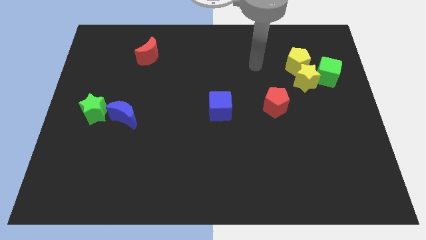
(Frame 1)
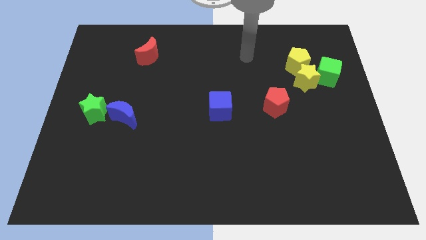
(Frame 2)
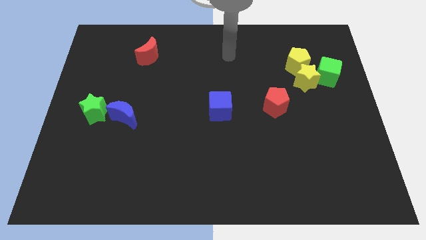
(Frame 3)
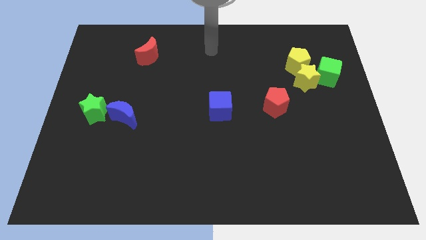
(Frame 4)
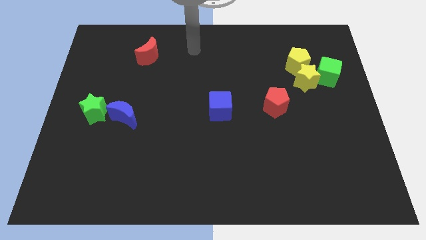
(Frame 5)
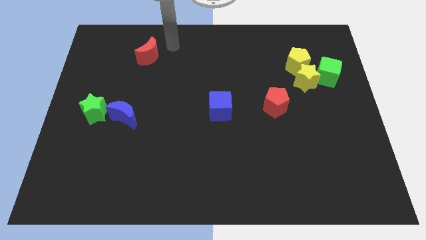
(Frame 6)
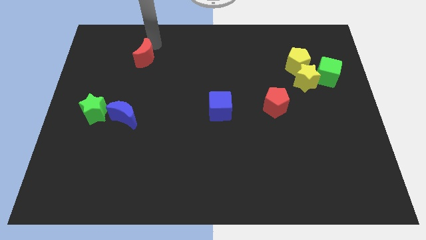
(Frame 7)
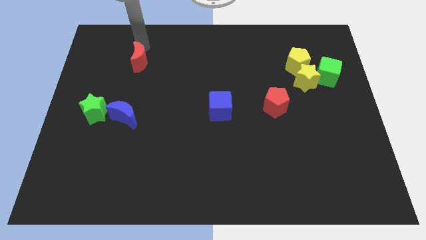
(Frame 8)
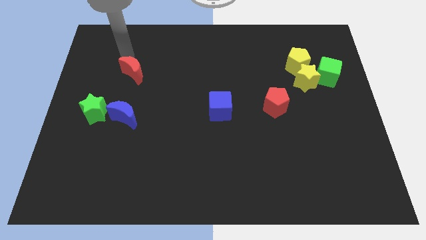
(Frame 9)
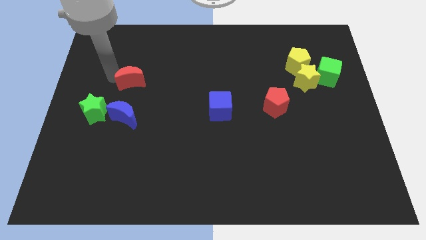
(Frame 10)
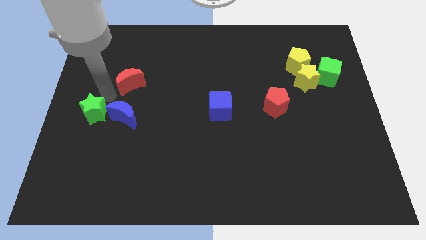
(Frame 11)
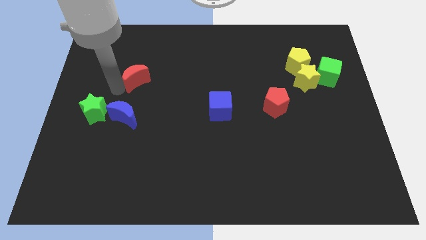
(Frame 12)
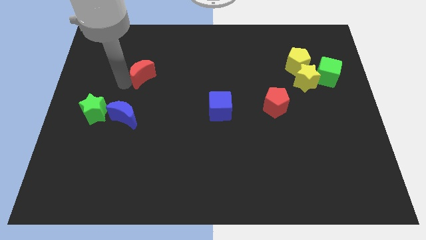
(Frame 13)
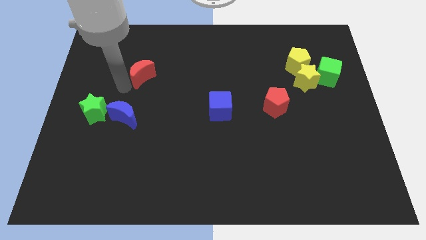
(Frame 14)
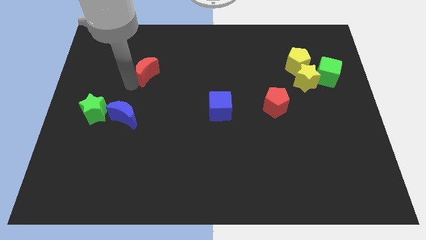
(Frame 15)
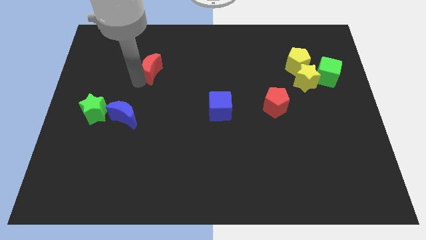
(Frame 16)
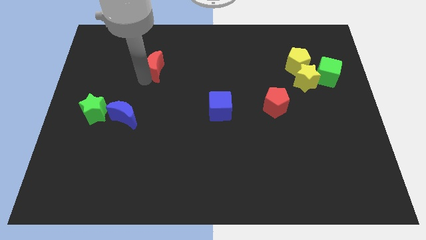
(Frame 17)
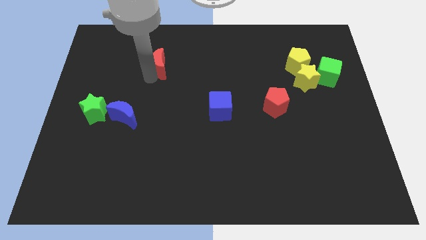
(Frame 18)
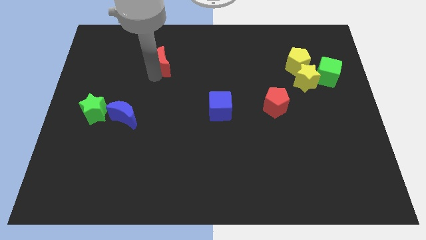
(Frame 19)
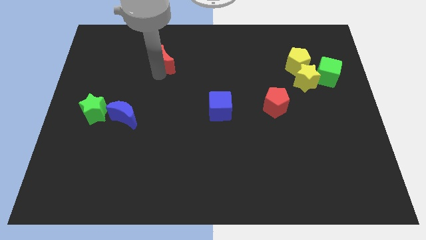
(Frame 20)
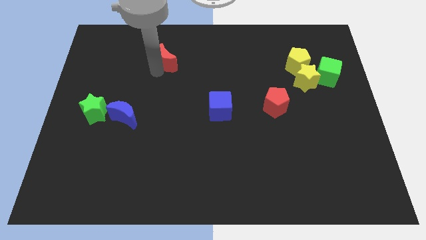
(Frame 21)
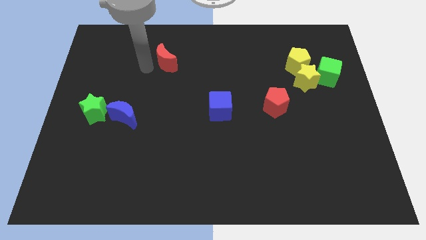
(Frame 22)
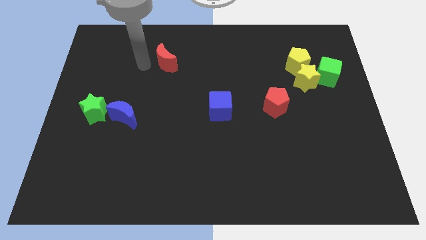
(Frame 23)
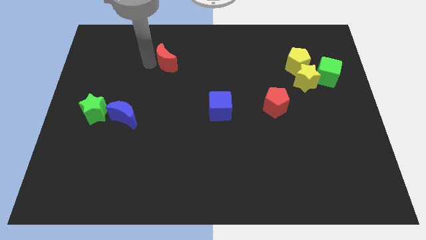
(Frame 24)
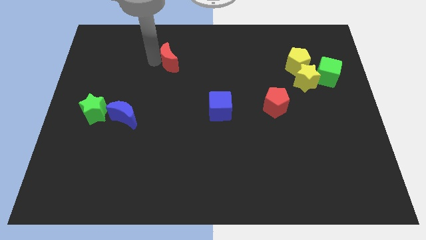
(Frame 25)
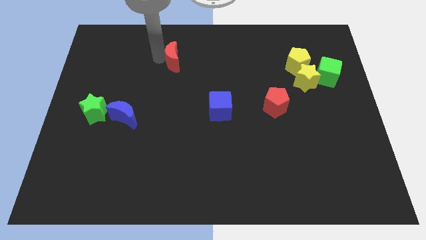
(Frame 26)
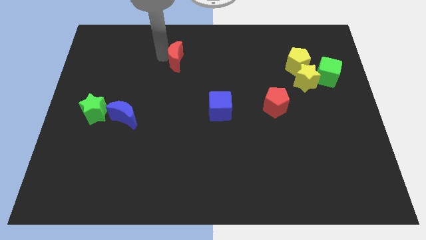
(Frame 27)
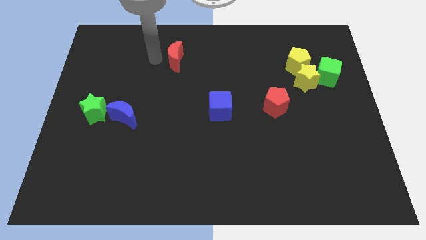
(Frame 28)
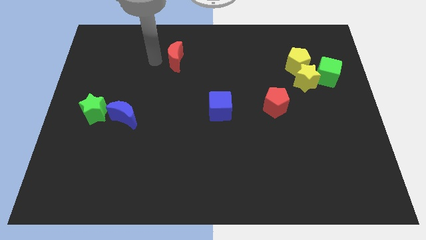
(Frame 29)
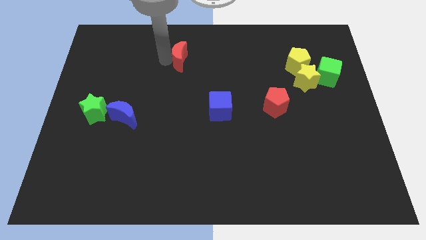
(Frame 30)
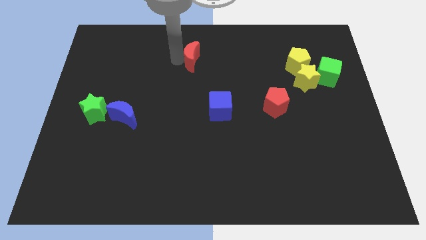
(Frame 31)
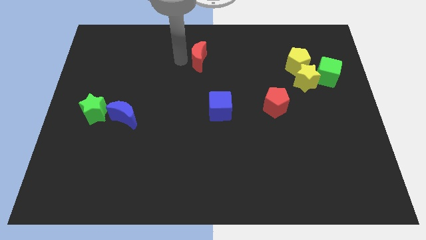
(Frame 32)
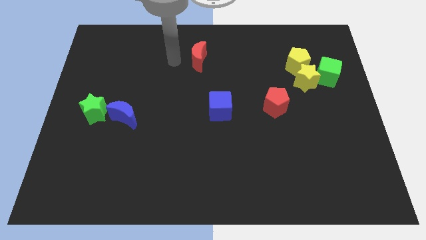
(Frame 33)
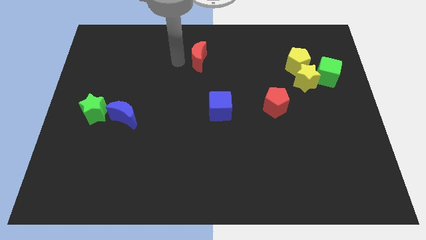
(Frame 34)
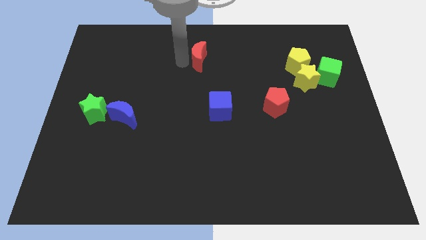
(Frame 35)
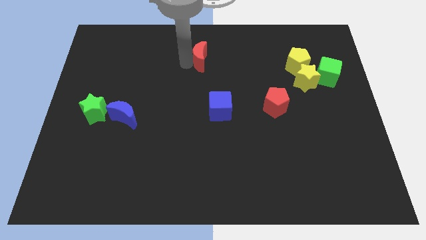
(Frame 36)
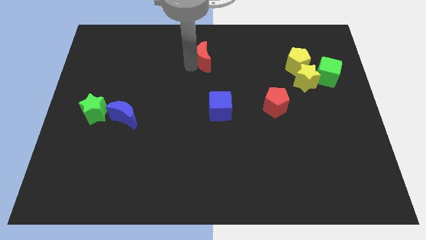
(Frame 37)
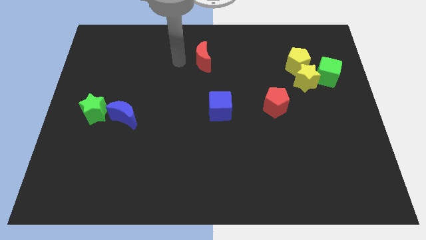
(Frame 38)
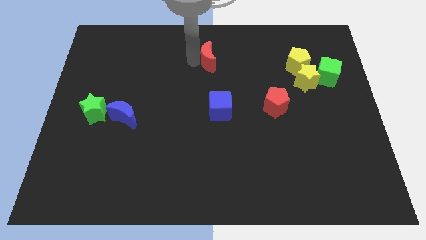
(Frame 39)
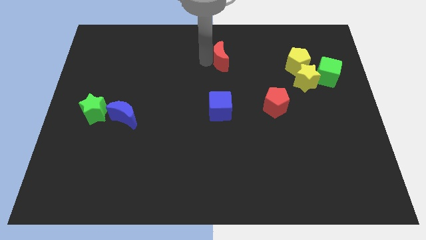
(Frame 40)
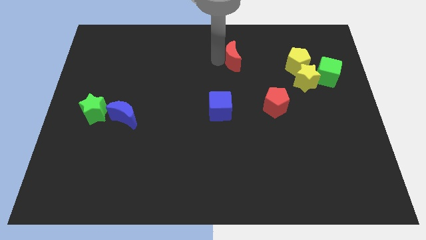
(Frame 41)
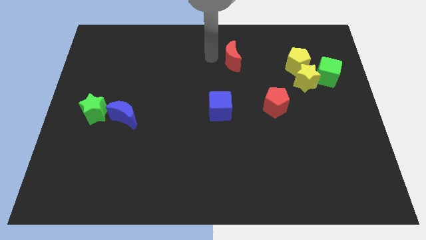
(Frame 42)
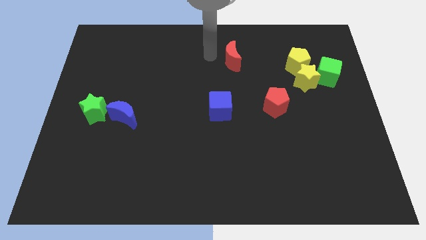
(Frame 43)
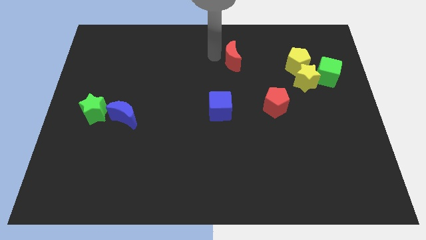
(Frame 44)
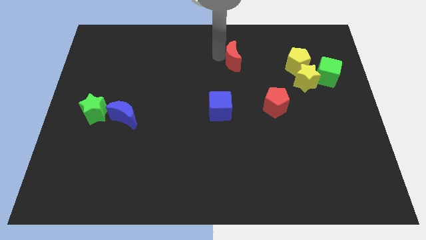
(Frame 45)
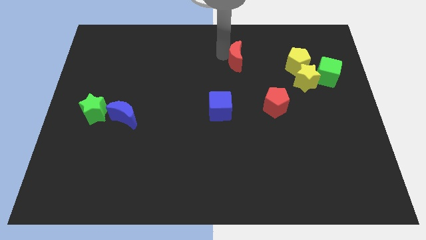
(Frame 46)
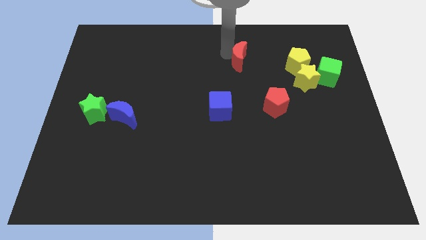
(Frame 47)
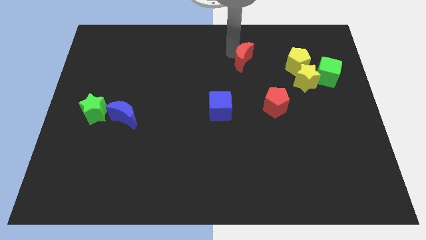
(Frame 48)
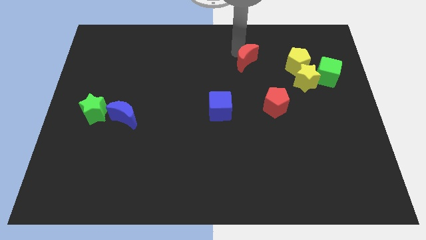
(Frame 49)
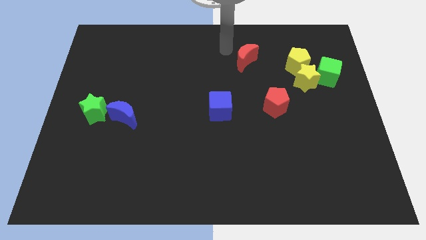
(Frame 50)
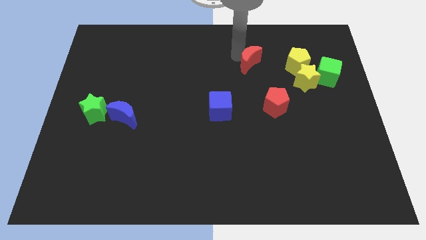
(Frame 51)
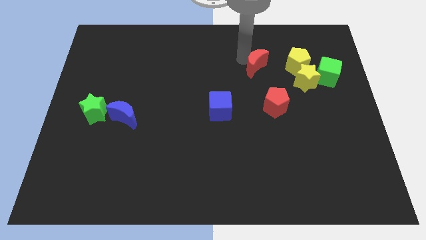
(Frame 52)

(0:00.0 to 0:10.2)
move the red moon above the red pentagon

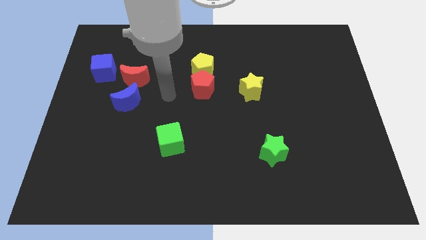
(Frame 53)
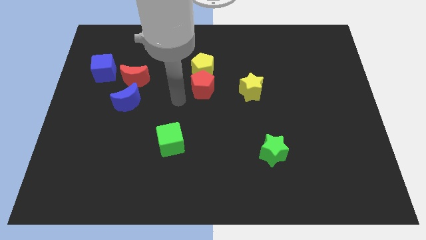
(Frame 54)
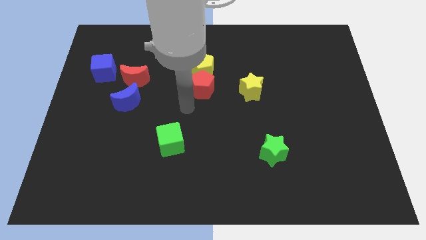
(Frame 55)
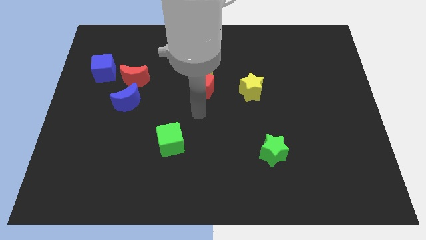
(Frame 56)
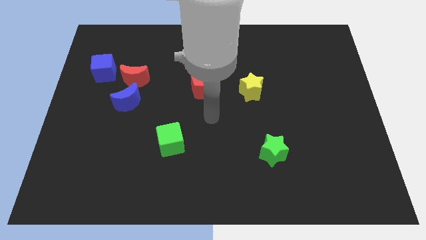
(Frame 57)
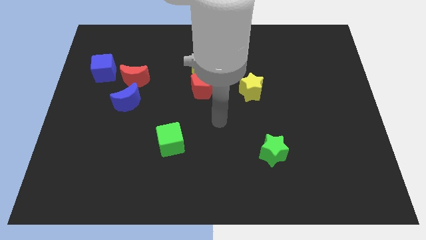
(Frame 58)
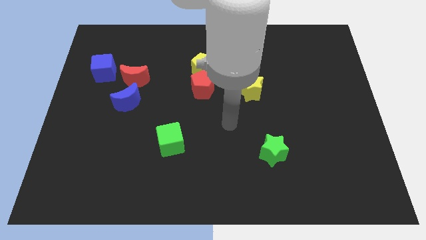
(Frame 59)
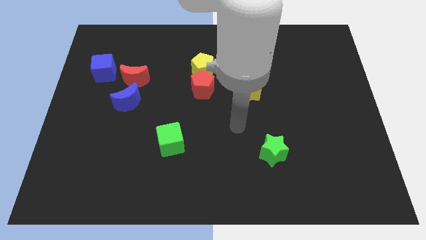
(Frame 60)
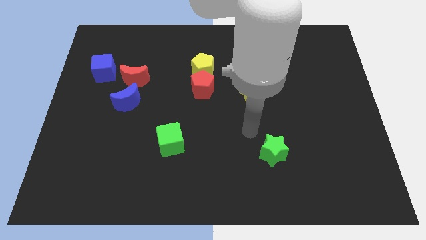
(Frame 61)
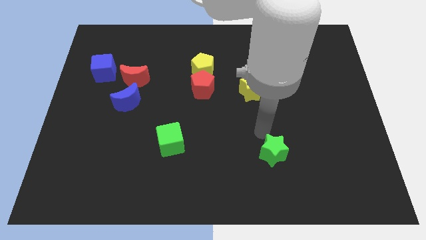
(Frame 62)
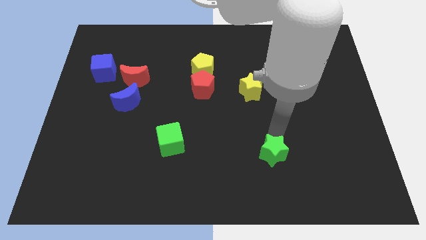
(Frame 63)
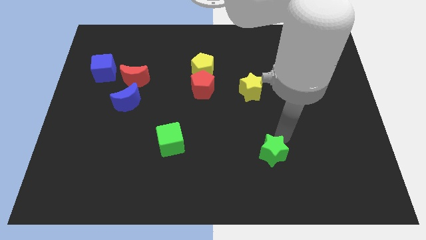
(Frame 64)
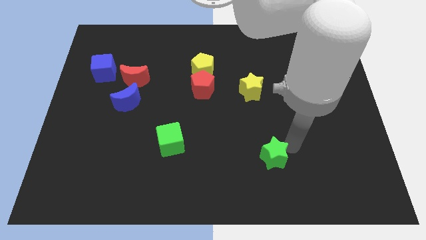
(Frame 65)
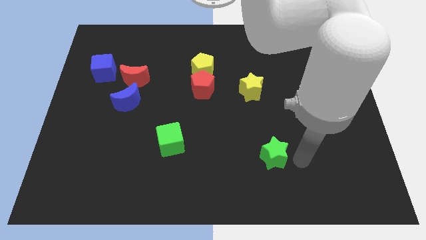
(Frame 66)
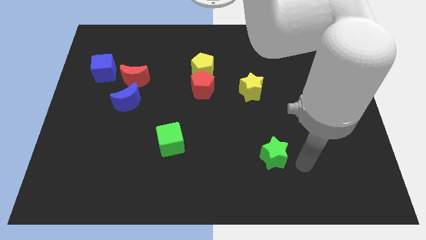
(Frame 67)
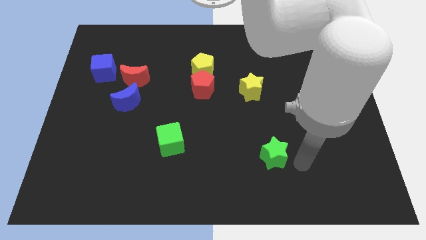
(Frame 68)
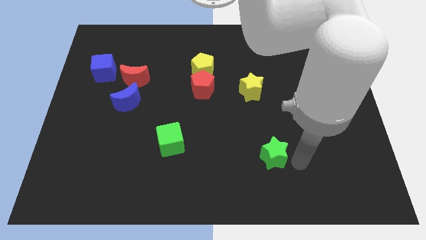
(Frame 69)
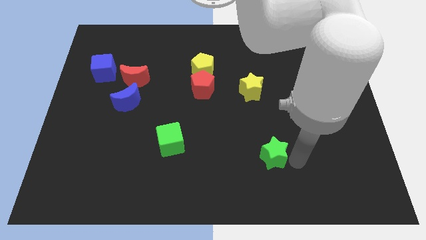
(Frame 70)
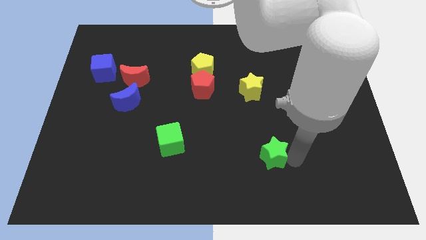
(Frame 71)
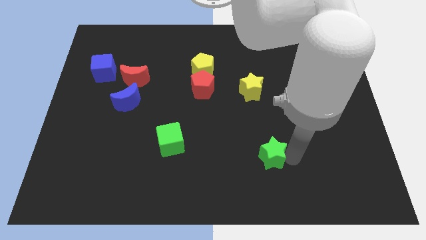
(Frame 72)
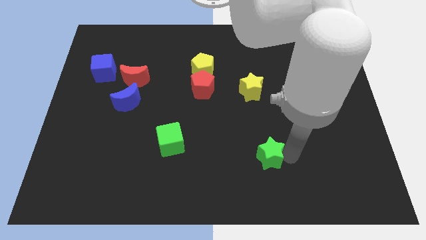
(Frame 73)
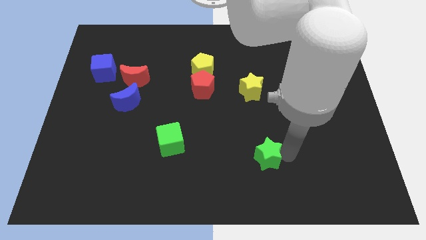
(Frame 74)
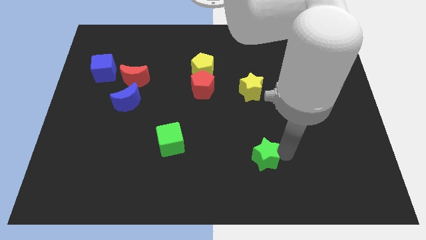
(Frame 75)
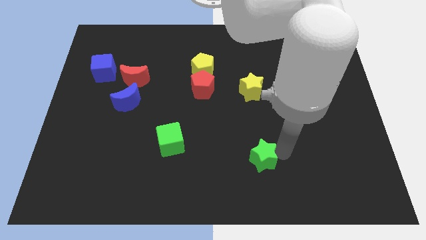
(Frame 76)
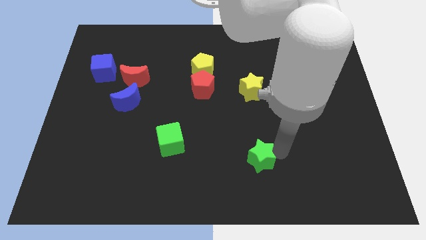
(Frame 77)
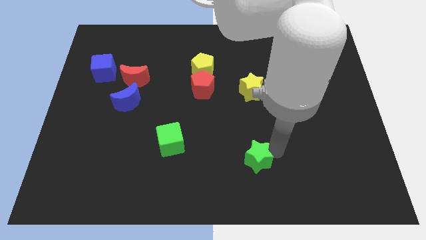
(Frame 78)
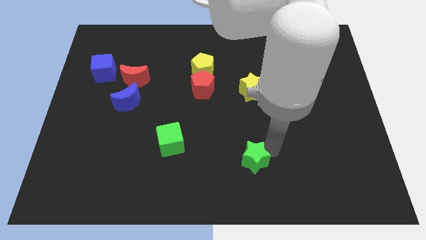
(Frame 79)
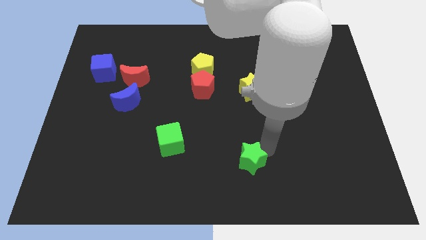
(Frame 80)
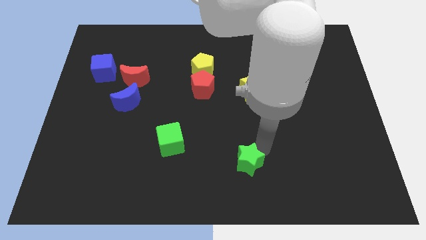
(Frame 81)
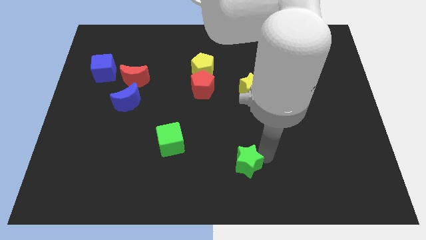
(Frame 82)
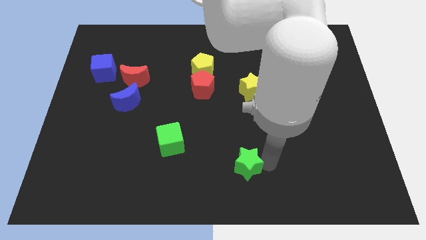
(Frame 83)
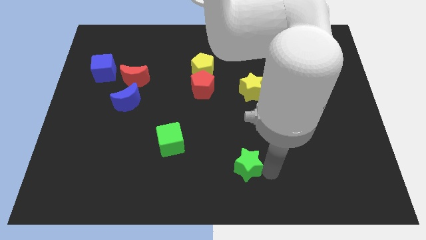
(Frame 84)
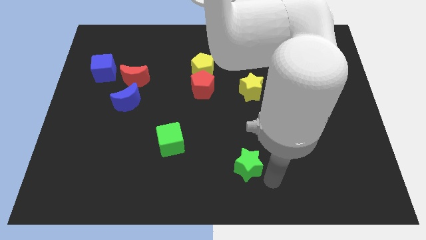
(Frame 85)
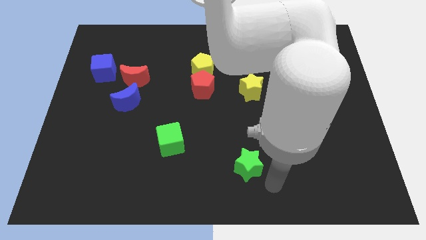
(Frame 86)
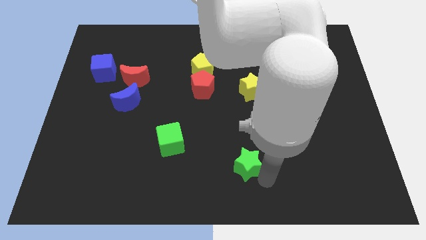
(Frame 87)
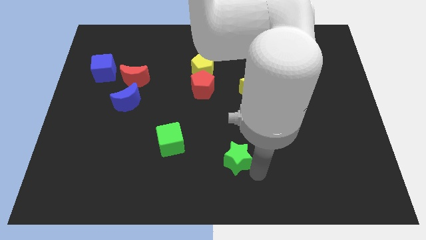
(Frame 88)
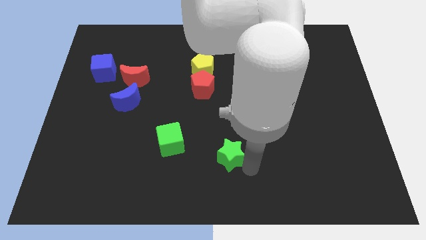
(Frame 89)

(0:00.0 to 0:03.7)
push the green star just right of the green cube
